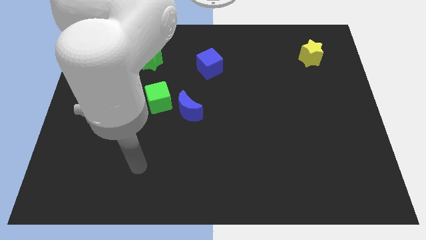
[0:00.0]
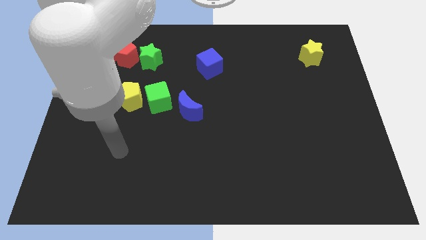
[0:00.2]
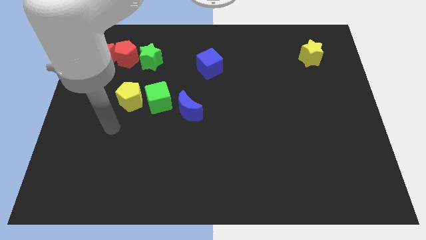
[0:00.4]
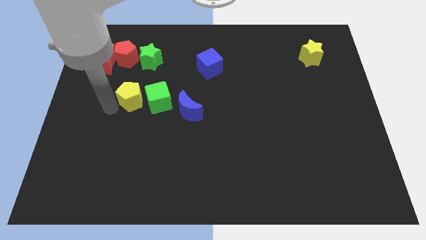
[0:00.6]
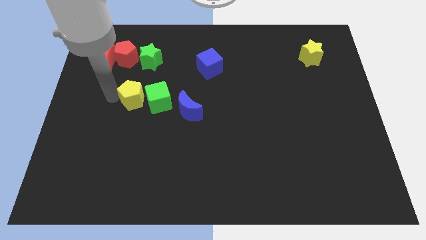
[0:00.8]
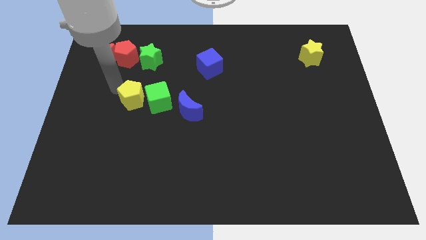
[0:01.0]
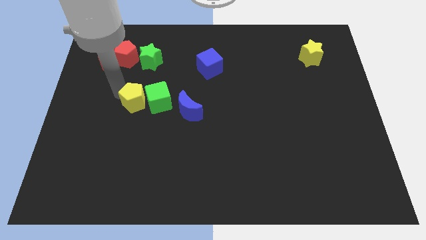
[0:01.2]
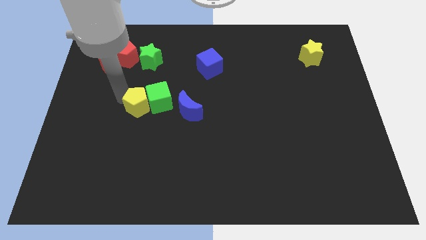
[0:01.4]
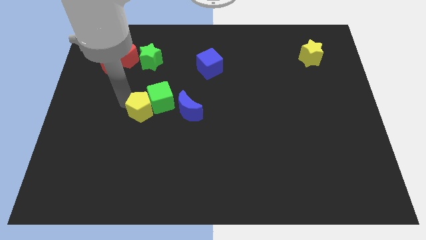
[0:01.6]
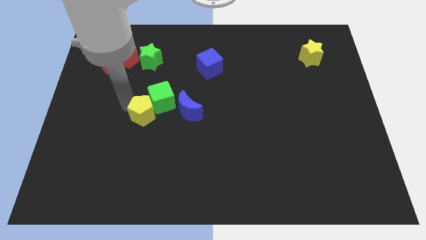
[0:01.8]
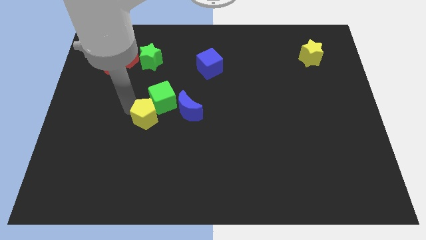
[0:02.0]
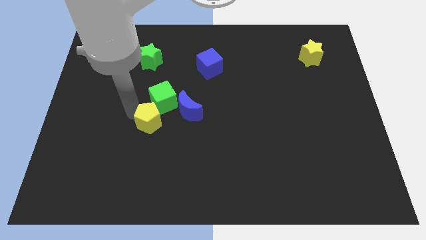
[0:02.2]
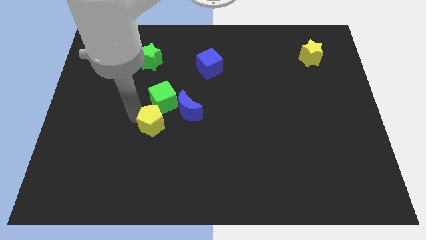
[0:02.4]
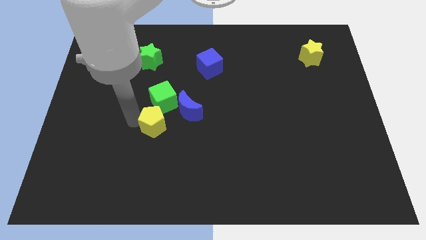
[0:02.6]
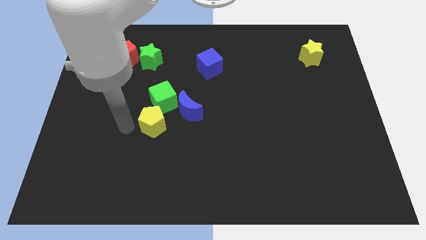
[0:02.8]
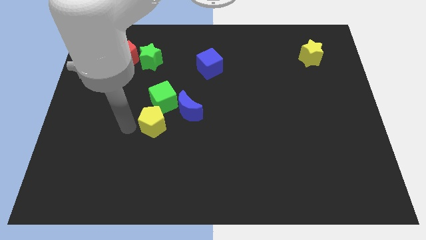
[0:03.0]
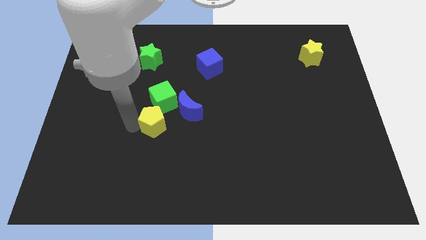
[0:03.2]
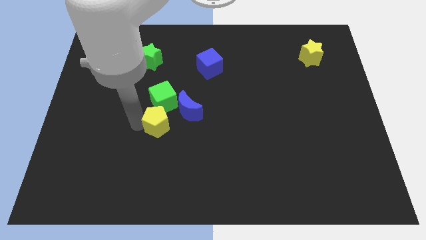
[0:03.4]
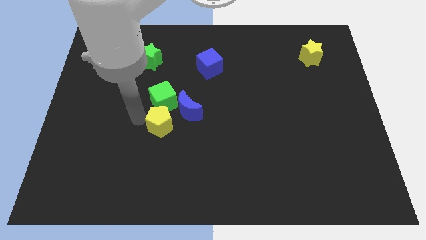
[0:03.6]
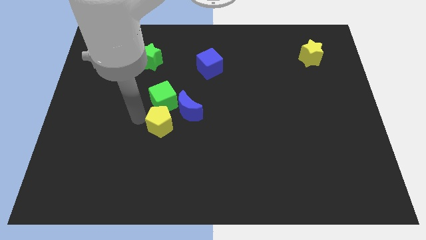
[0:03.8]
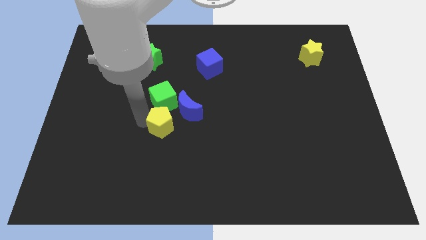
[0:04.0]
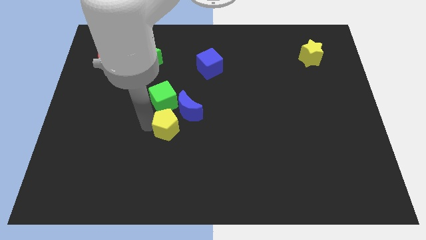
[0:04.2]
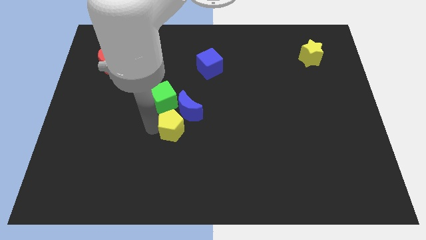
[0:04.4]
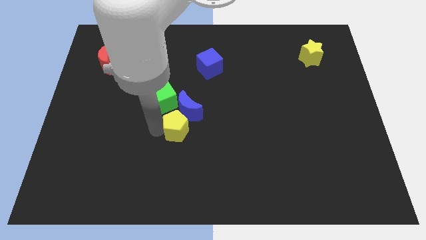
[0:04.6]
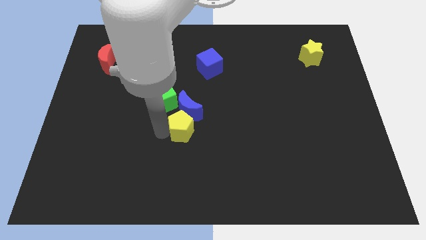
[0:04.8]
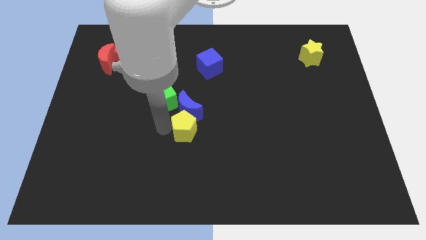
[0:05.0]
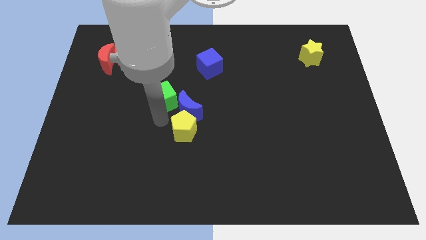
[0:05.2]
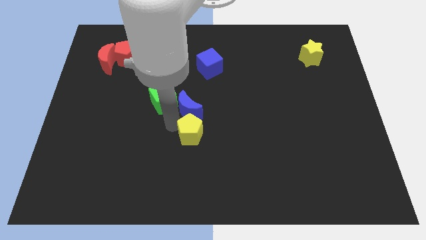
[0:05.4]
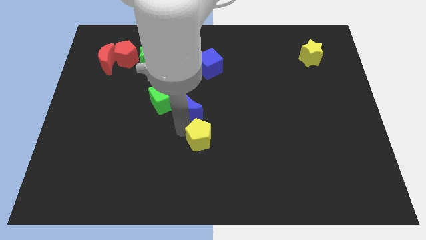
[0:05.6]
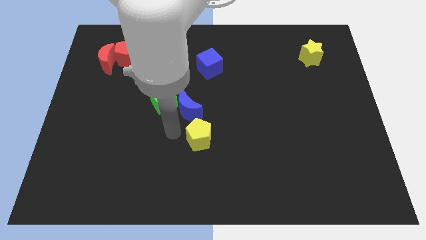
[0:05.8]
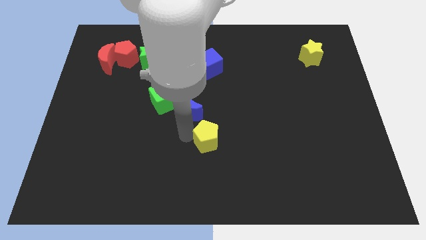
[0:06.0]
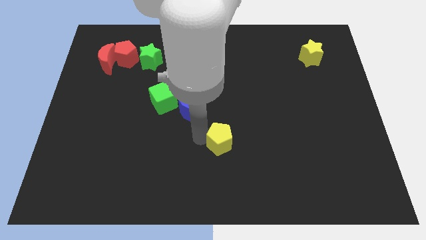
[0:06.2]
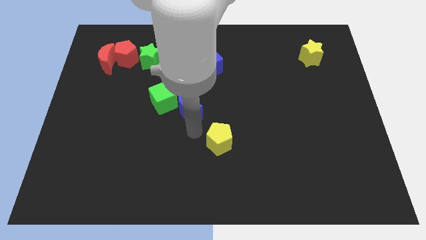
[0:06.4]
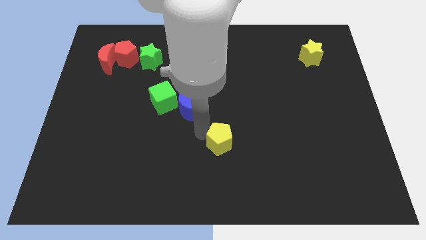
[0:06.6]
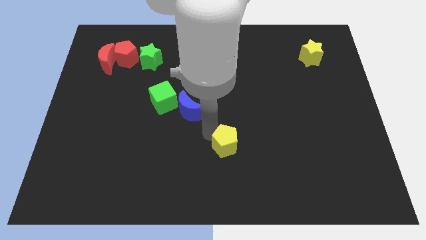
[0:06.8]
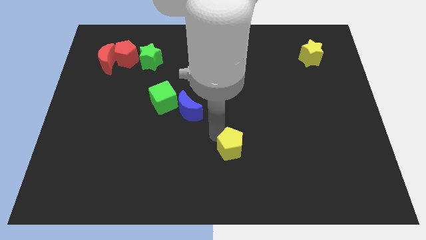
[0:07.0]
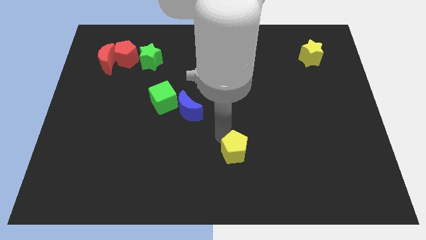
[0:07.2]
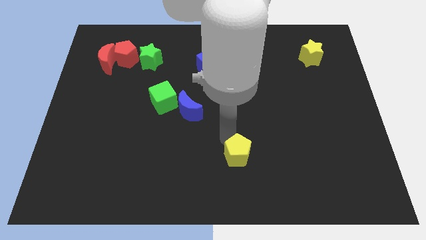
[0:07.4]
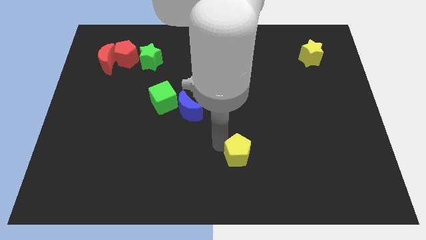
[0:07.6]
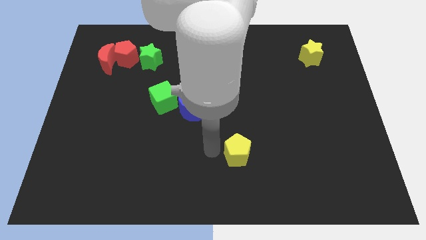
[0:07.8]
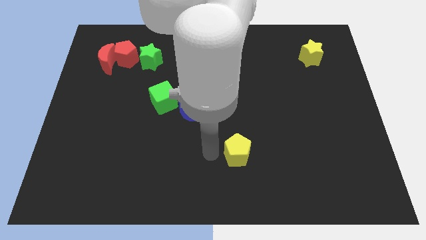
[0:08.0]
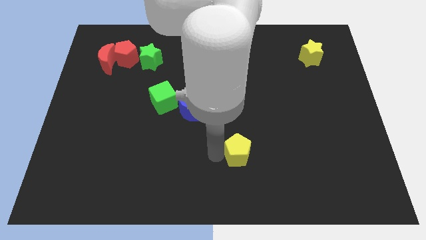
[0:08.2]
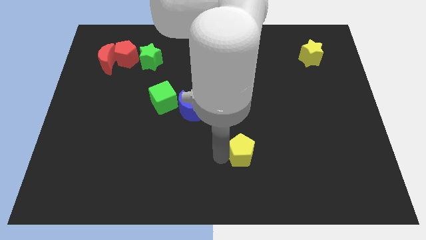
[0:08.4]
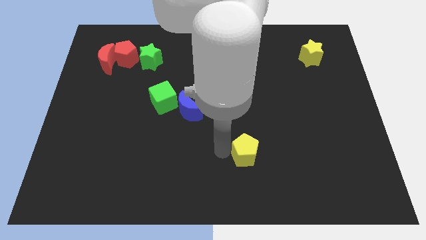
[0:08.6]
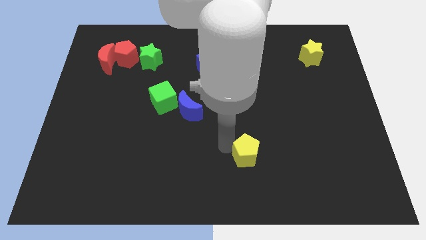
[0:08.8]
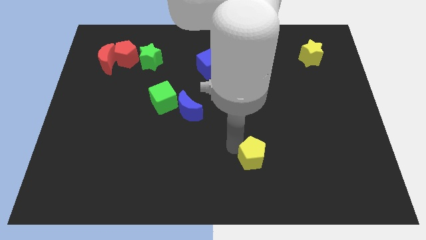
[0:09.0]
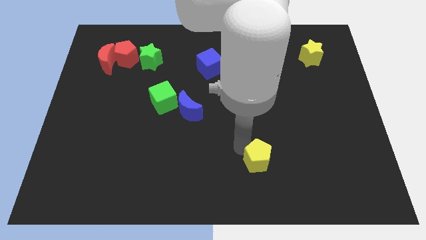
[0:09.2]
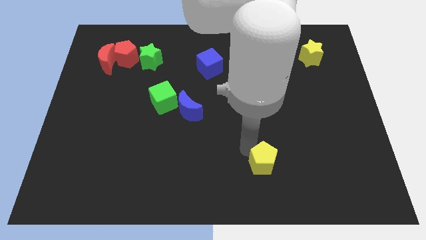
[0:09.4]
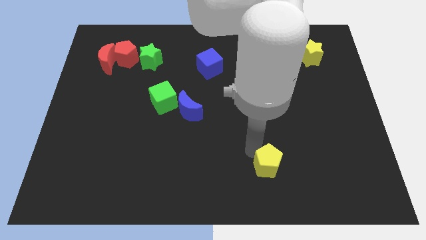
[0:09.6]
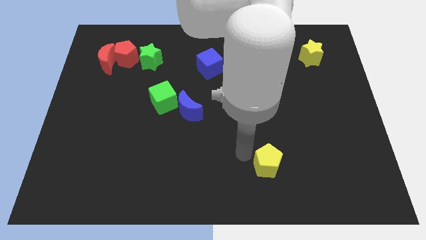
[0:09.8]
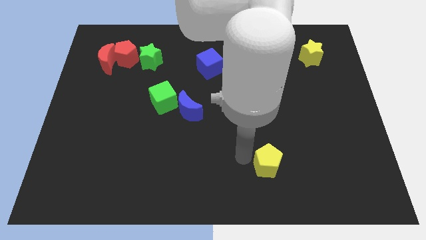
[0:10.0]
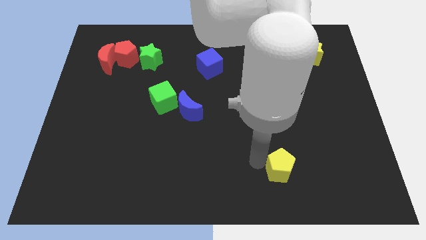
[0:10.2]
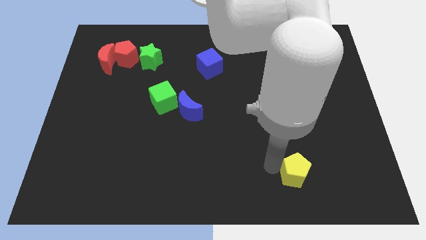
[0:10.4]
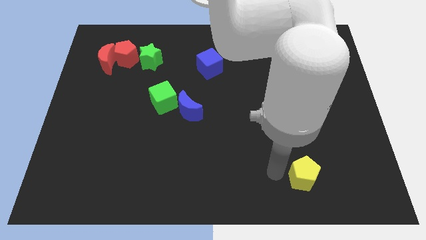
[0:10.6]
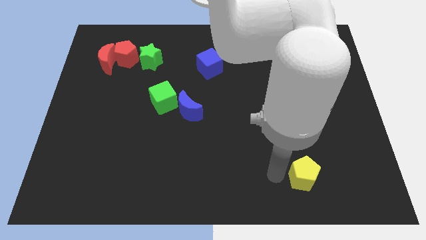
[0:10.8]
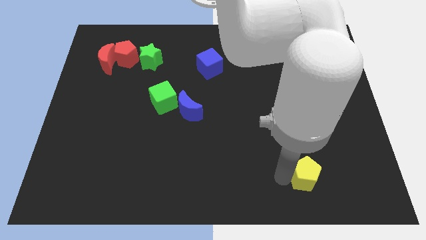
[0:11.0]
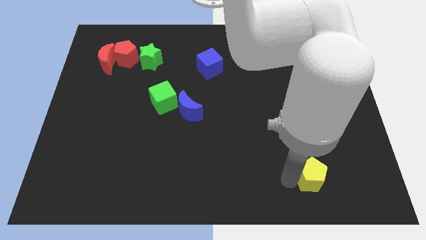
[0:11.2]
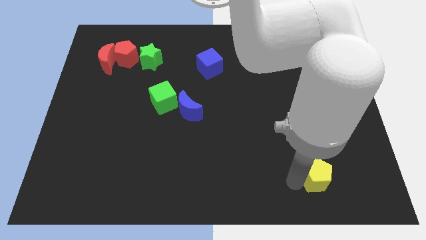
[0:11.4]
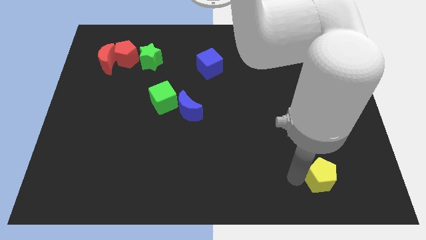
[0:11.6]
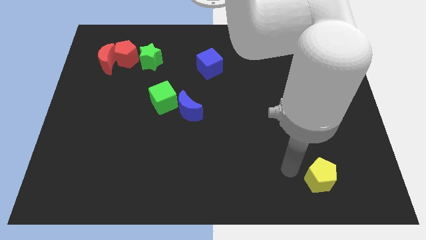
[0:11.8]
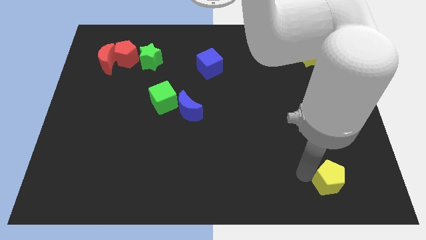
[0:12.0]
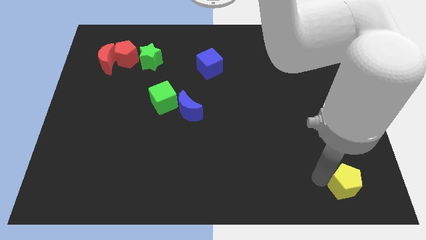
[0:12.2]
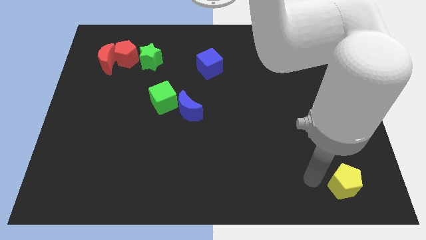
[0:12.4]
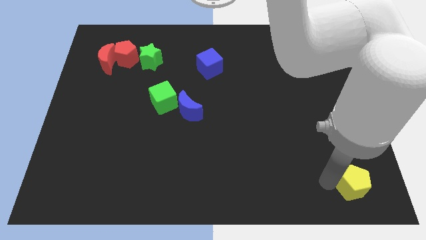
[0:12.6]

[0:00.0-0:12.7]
push the yellow pentagon to the bottom right
